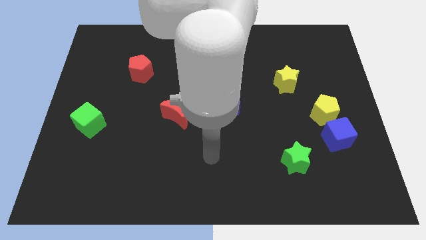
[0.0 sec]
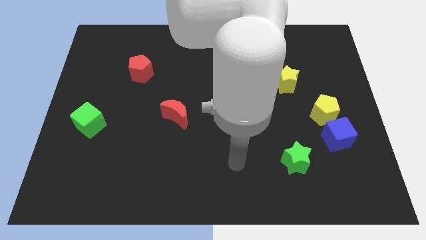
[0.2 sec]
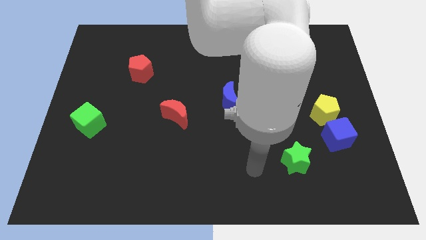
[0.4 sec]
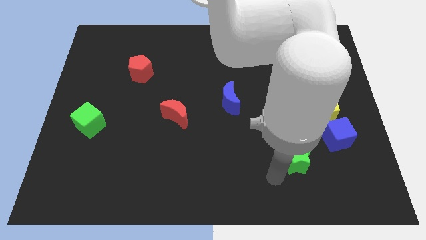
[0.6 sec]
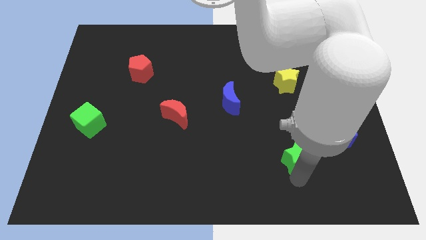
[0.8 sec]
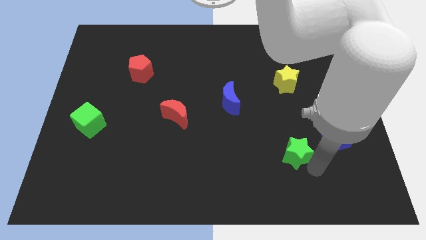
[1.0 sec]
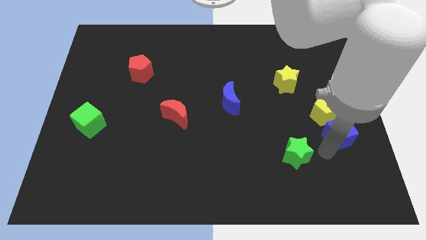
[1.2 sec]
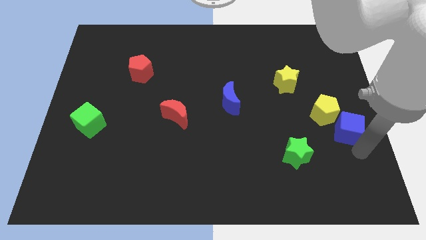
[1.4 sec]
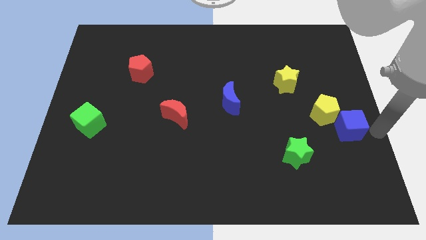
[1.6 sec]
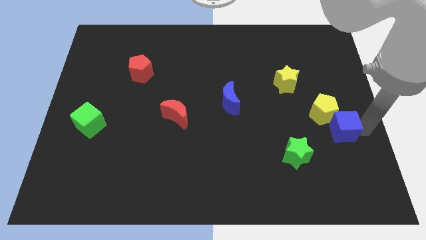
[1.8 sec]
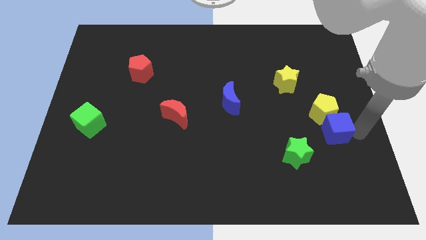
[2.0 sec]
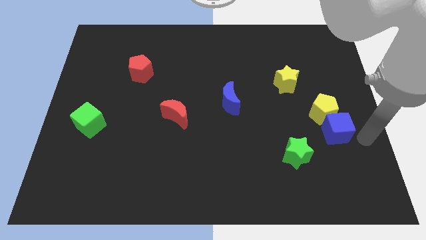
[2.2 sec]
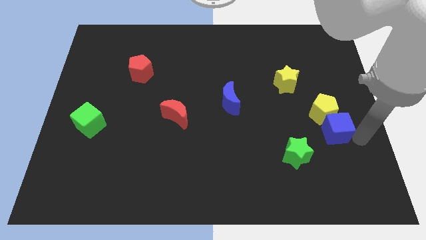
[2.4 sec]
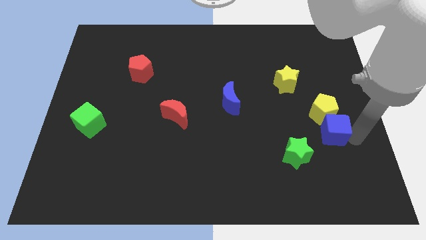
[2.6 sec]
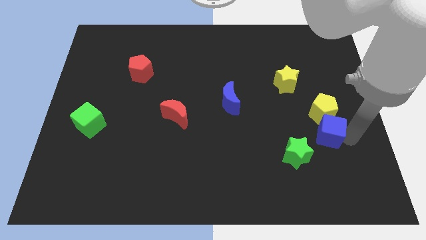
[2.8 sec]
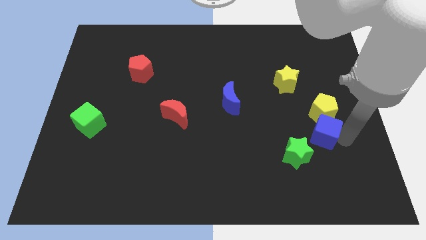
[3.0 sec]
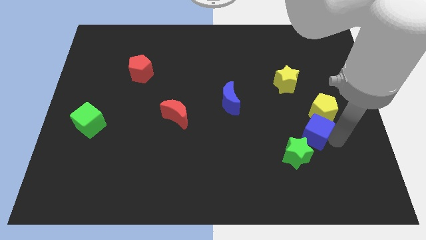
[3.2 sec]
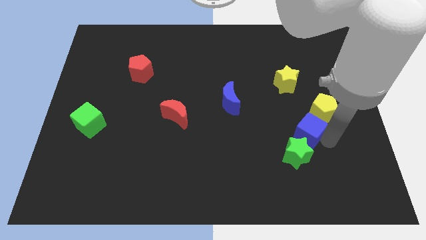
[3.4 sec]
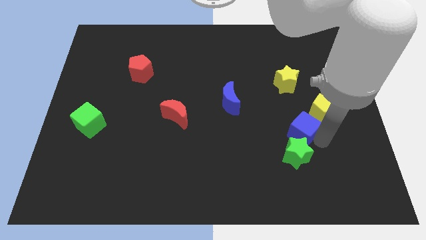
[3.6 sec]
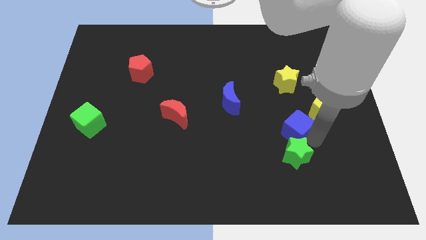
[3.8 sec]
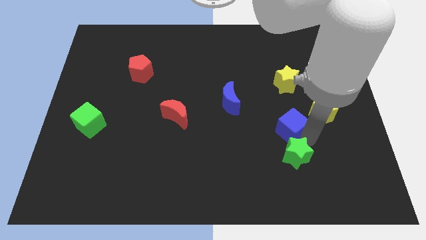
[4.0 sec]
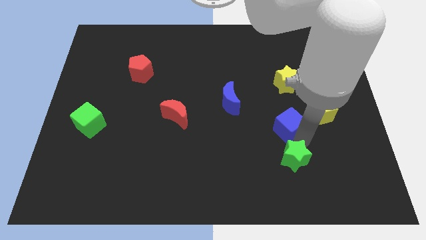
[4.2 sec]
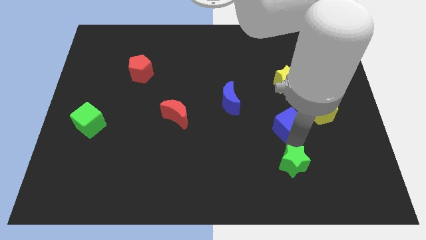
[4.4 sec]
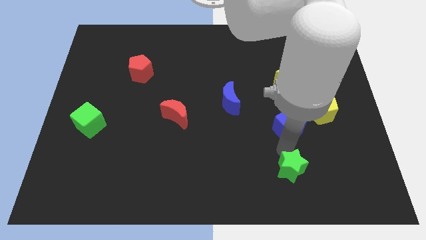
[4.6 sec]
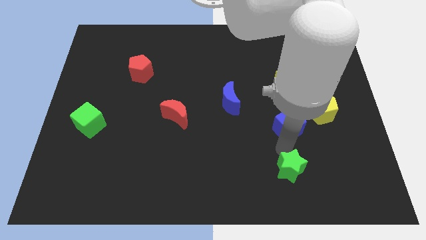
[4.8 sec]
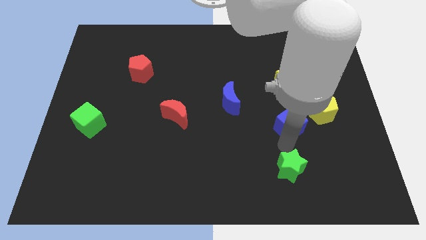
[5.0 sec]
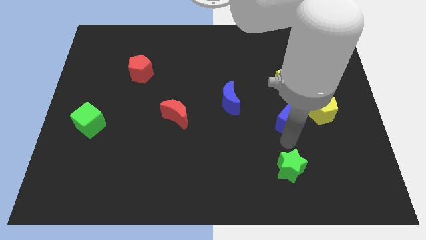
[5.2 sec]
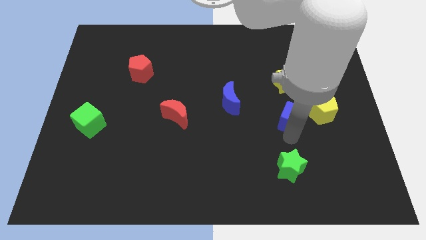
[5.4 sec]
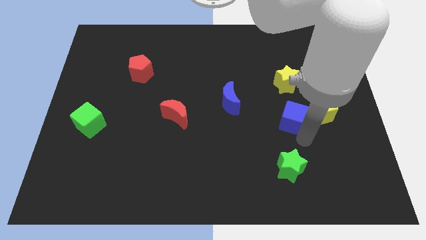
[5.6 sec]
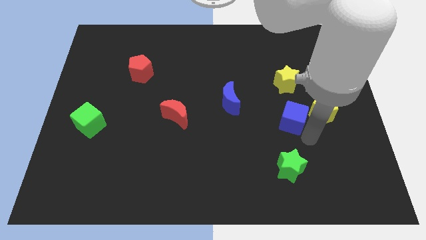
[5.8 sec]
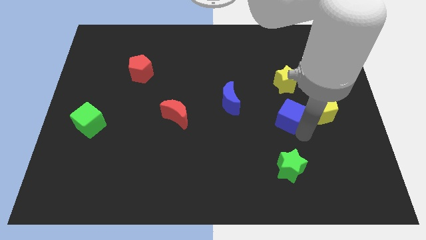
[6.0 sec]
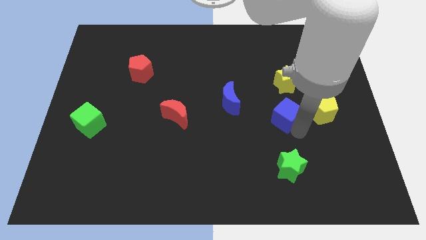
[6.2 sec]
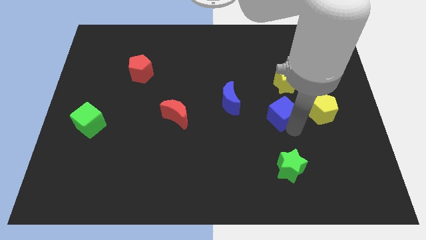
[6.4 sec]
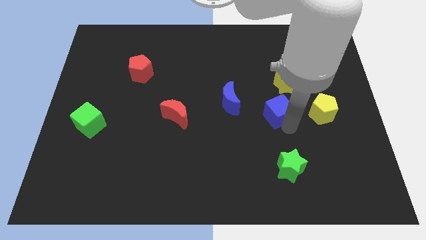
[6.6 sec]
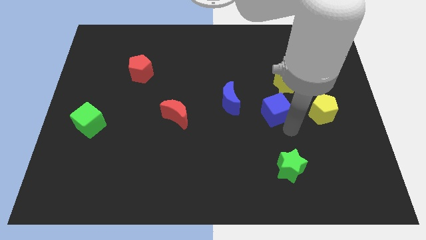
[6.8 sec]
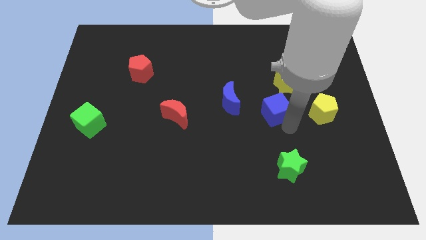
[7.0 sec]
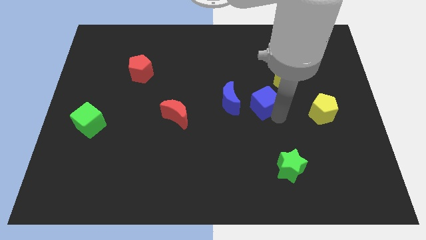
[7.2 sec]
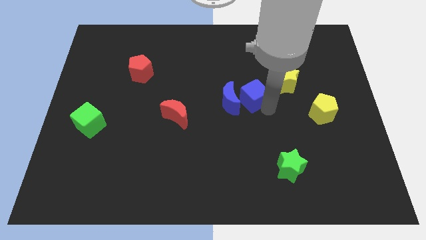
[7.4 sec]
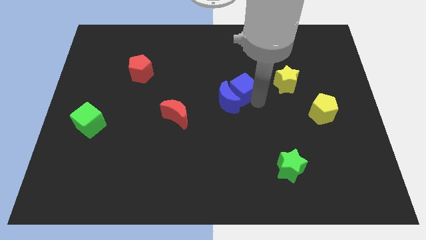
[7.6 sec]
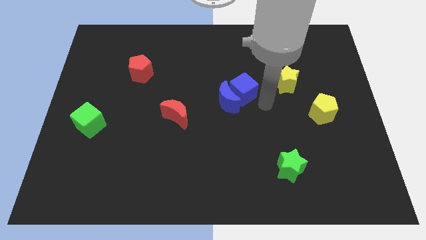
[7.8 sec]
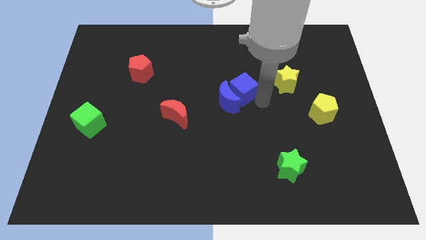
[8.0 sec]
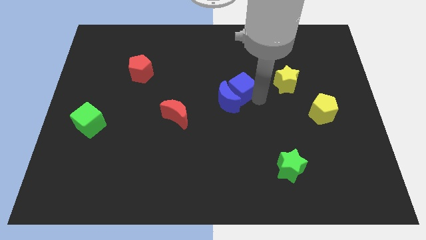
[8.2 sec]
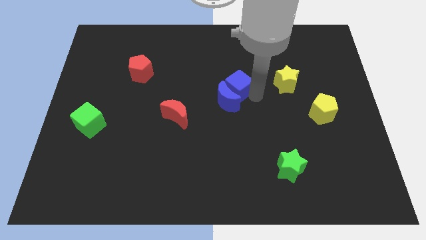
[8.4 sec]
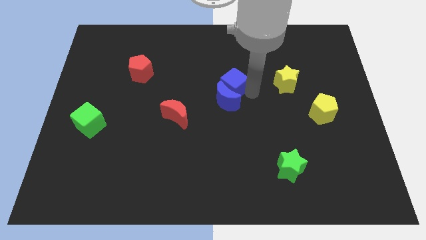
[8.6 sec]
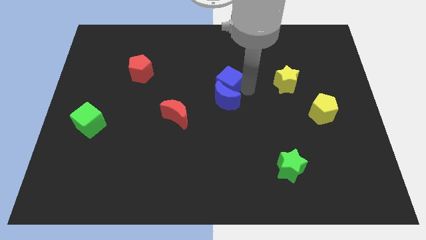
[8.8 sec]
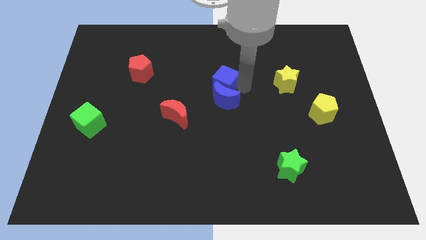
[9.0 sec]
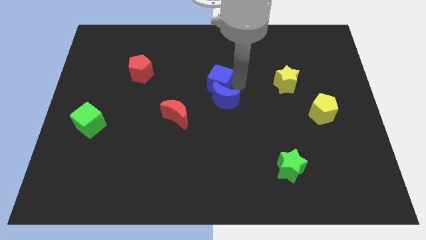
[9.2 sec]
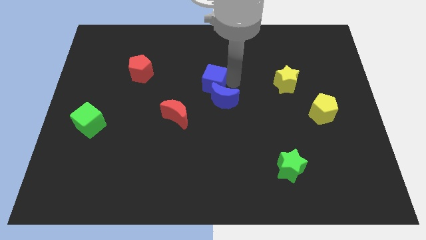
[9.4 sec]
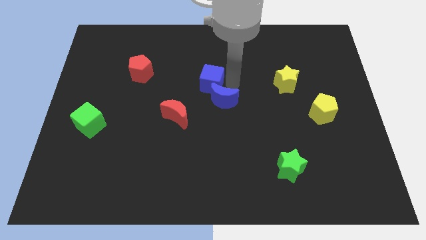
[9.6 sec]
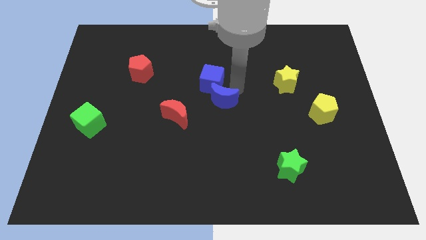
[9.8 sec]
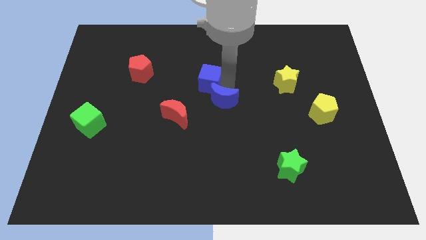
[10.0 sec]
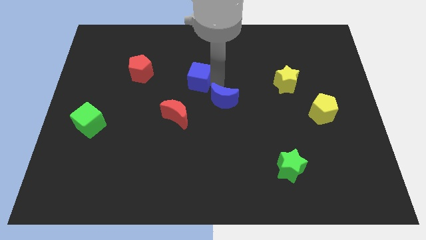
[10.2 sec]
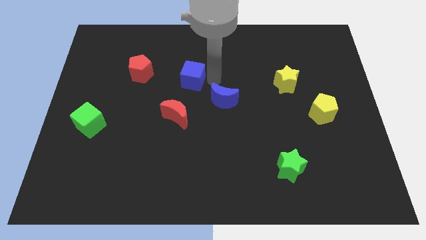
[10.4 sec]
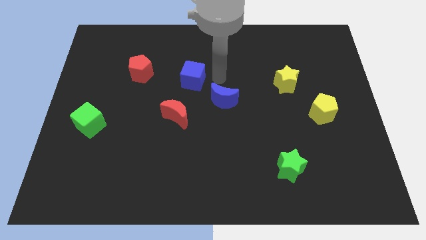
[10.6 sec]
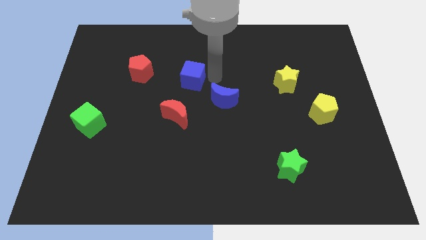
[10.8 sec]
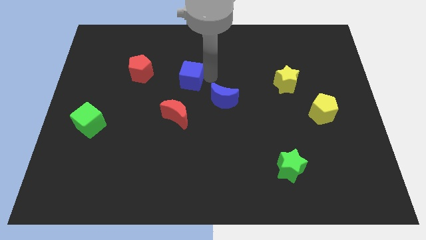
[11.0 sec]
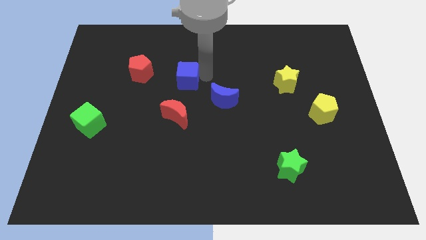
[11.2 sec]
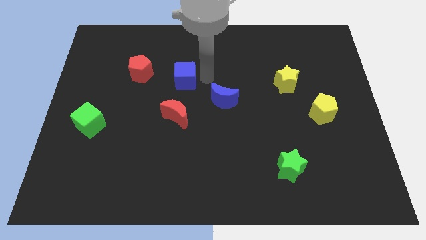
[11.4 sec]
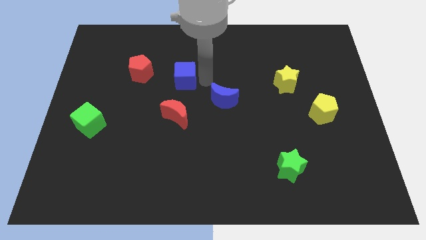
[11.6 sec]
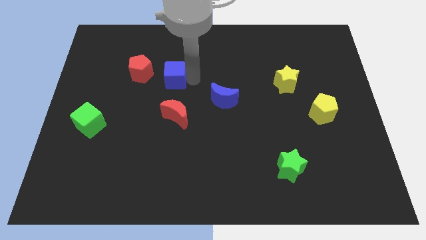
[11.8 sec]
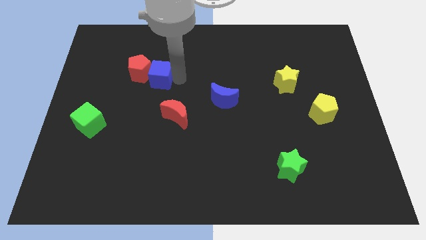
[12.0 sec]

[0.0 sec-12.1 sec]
push the blue cube to the red pentagon

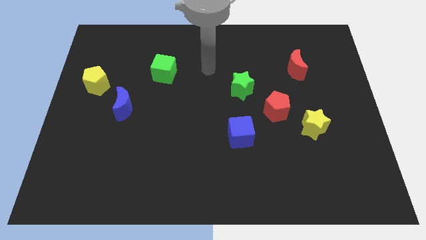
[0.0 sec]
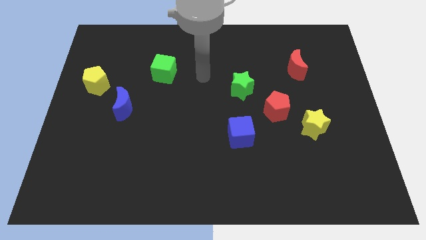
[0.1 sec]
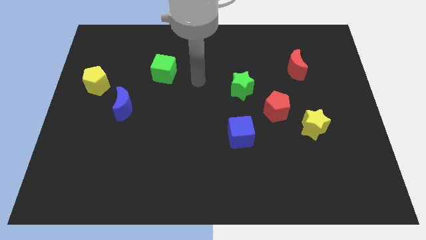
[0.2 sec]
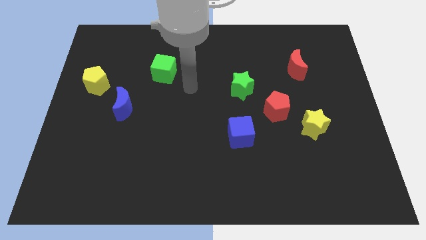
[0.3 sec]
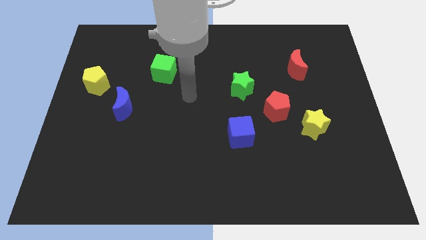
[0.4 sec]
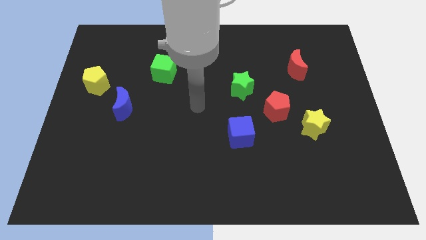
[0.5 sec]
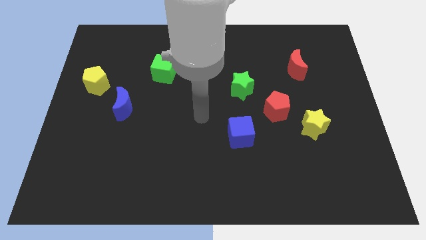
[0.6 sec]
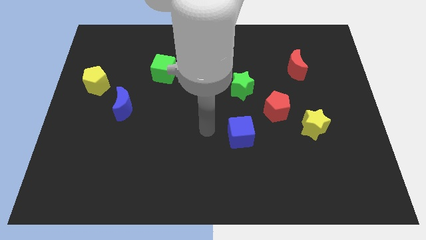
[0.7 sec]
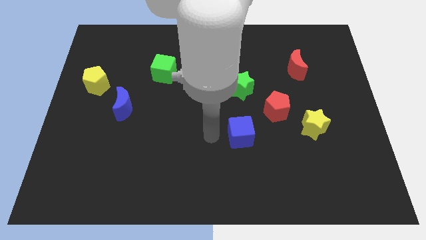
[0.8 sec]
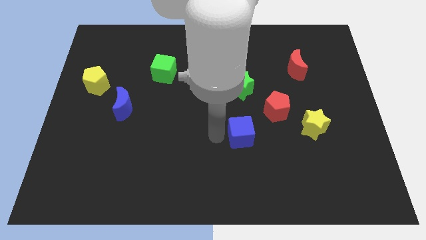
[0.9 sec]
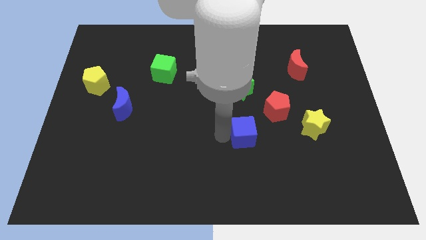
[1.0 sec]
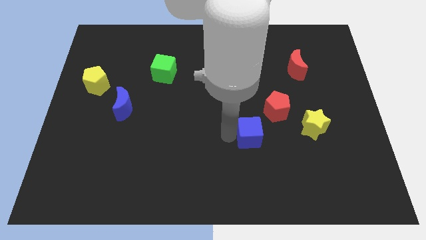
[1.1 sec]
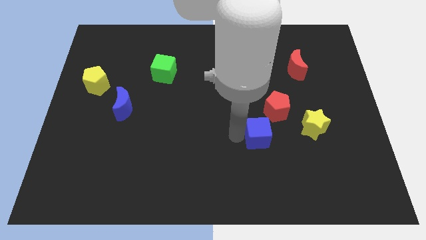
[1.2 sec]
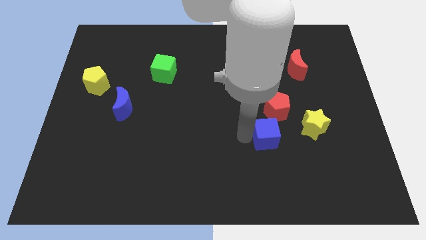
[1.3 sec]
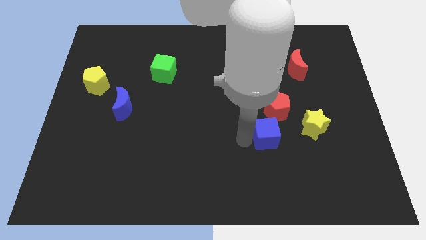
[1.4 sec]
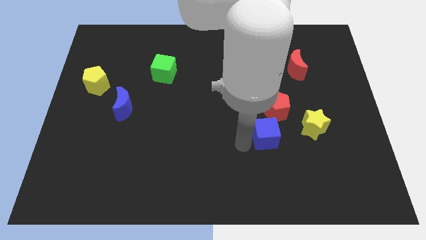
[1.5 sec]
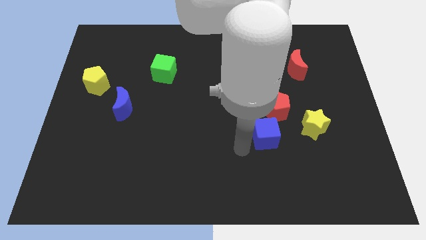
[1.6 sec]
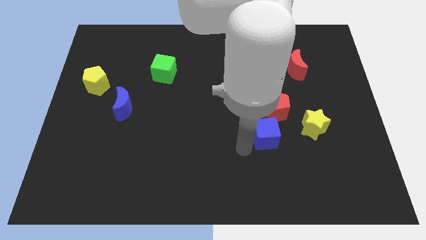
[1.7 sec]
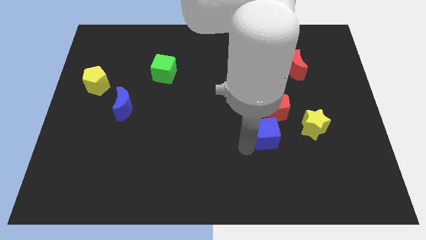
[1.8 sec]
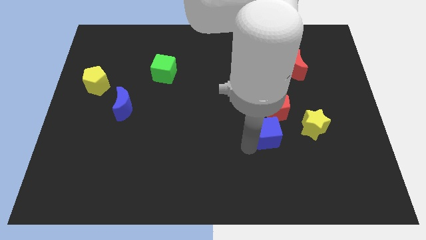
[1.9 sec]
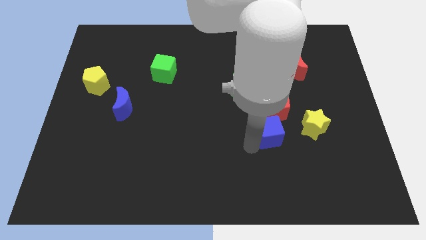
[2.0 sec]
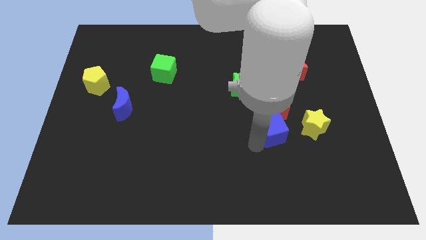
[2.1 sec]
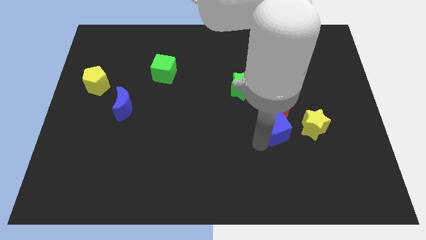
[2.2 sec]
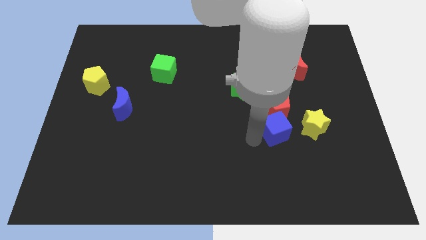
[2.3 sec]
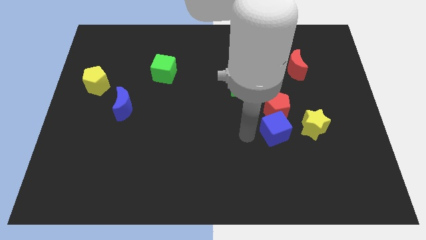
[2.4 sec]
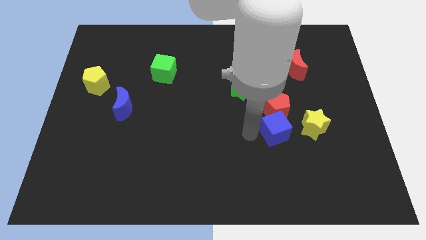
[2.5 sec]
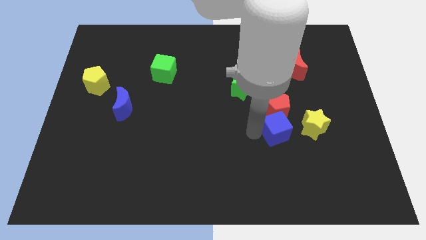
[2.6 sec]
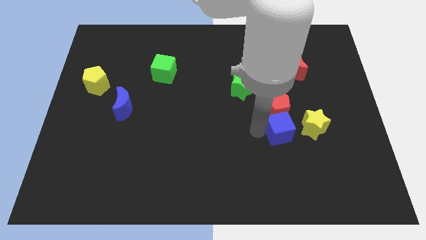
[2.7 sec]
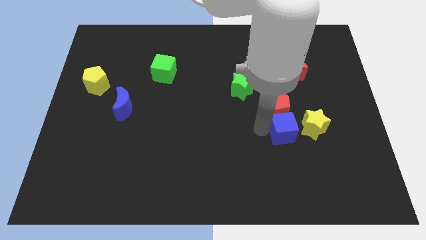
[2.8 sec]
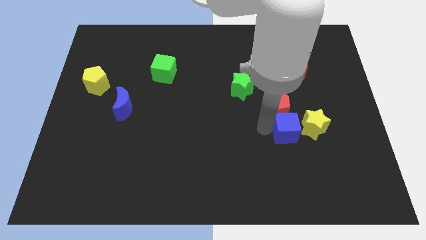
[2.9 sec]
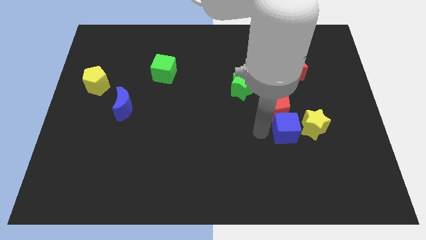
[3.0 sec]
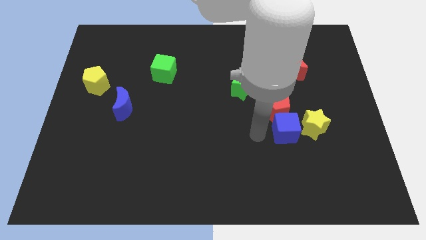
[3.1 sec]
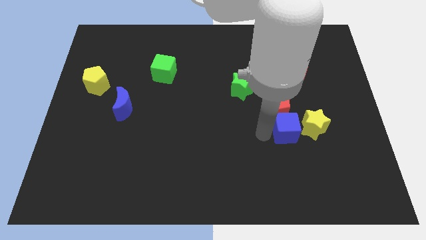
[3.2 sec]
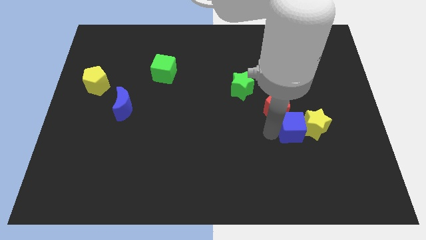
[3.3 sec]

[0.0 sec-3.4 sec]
move the blue cube to the yellow star
